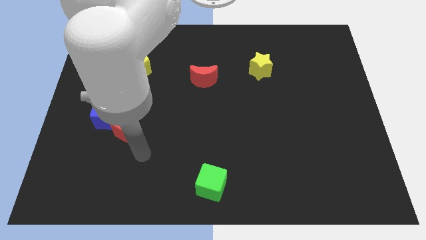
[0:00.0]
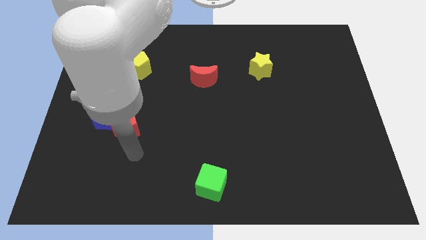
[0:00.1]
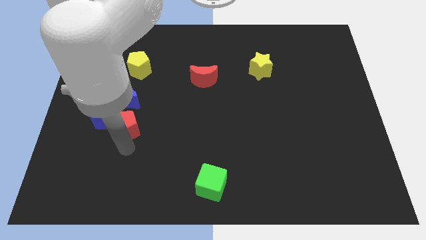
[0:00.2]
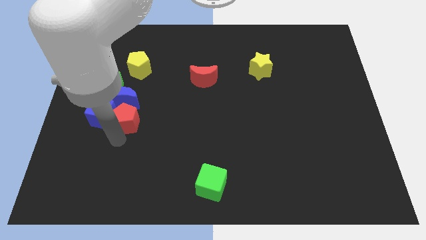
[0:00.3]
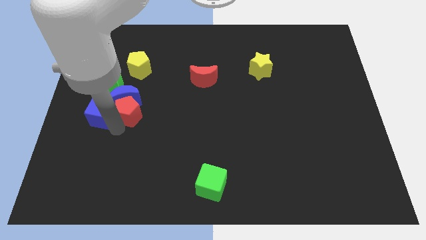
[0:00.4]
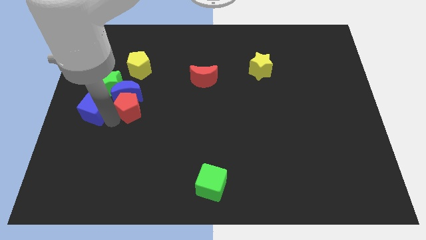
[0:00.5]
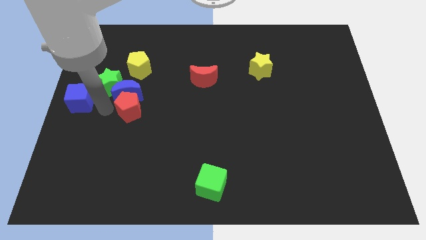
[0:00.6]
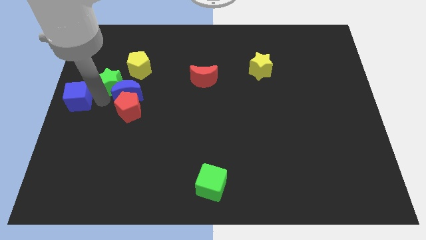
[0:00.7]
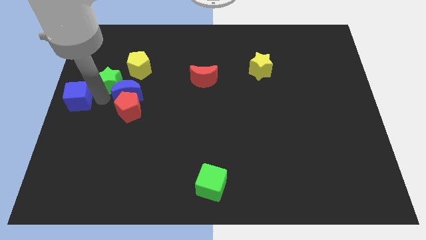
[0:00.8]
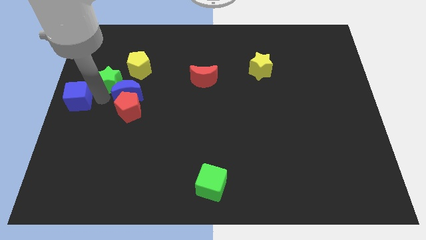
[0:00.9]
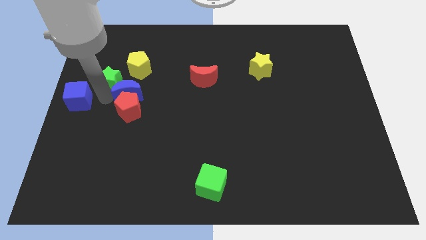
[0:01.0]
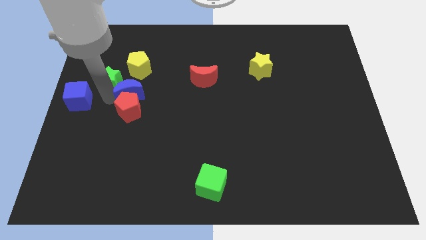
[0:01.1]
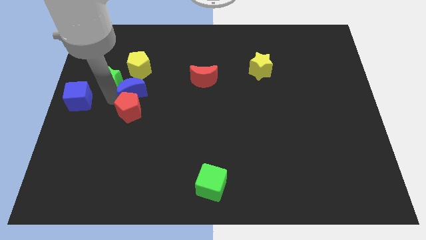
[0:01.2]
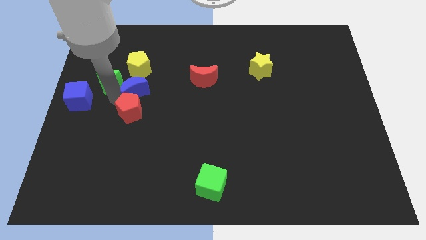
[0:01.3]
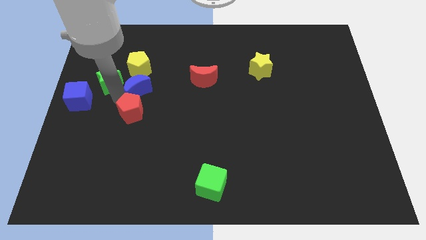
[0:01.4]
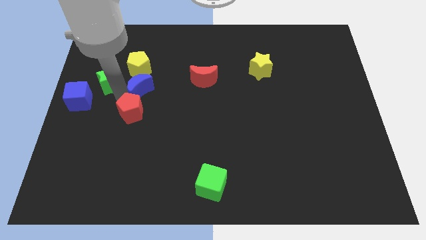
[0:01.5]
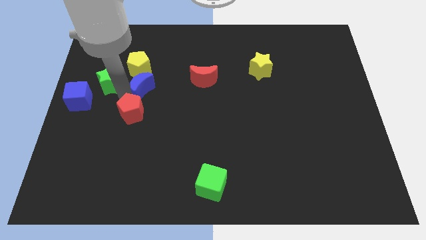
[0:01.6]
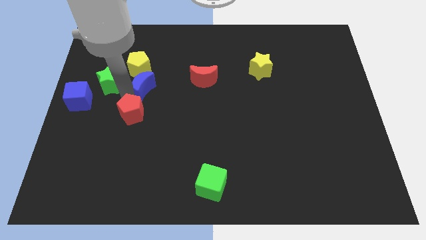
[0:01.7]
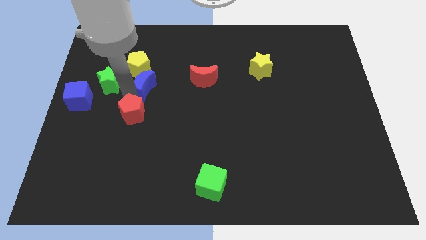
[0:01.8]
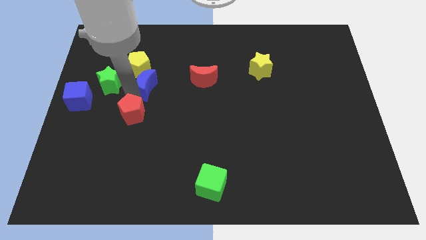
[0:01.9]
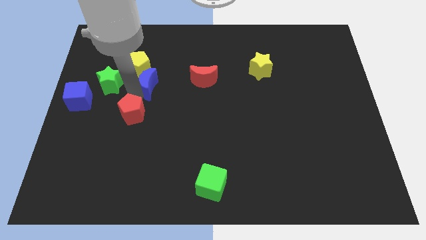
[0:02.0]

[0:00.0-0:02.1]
move the blue moon away from the blue cube, green star, and red pentagon

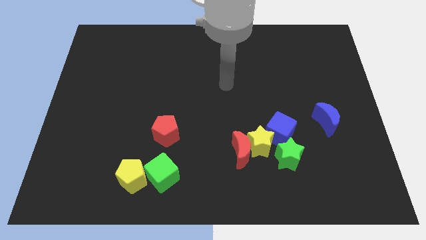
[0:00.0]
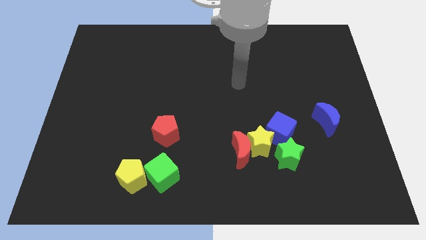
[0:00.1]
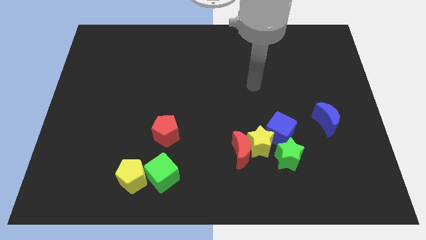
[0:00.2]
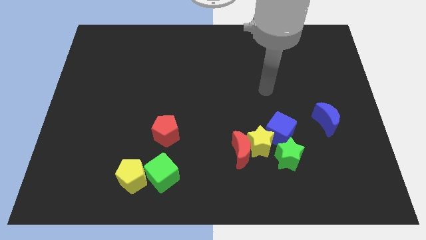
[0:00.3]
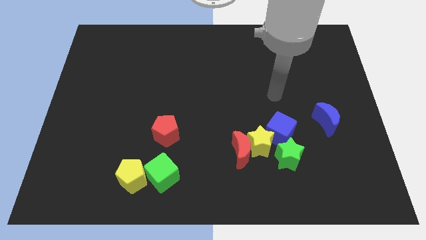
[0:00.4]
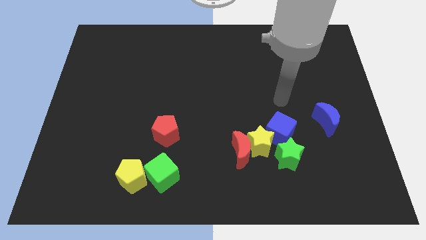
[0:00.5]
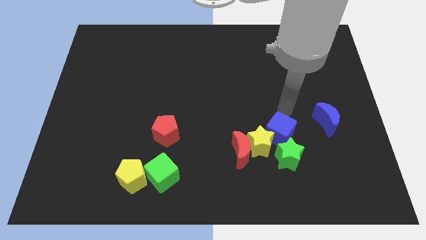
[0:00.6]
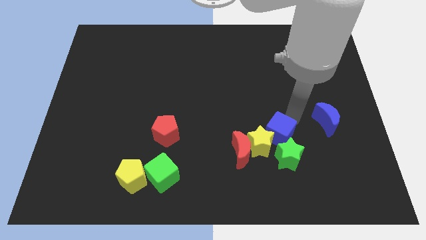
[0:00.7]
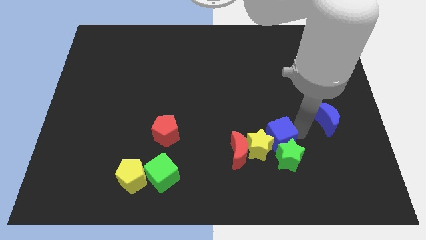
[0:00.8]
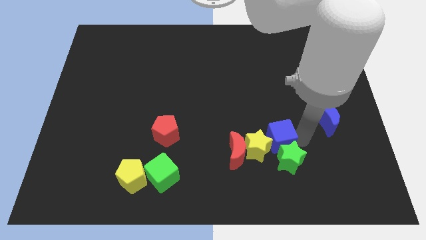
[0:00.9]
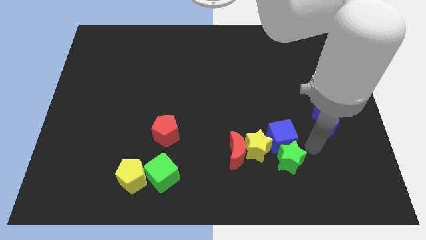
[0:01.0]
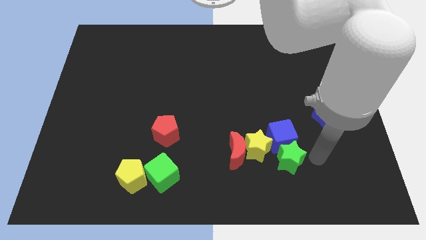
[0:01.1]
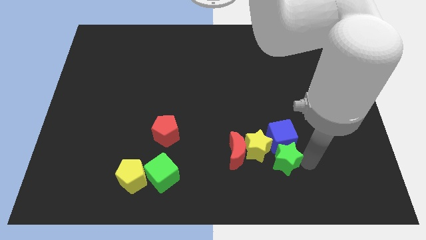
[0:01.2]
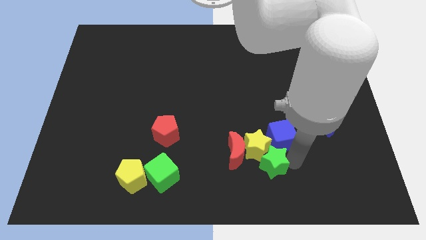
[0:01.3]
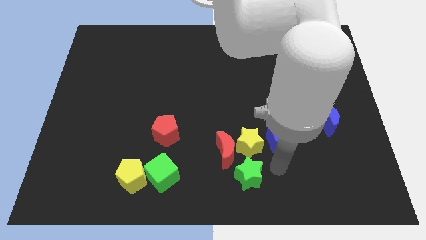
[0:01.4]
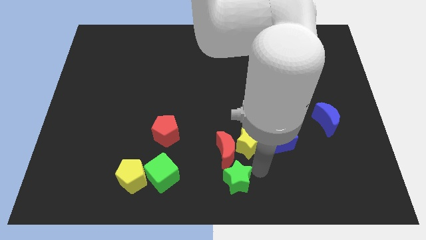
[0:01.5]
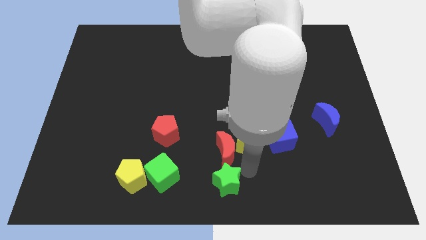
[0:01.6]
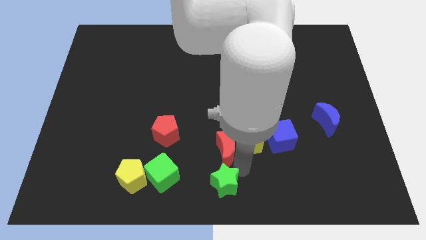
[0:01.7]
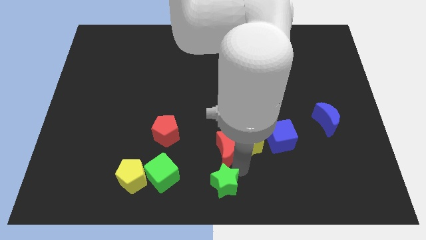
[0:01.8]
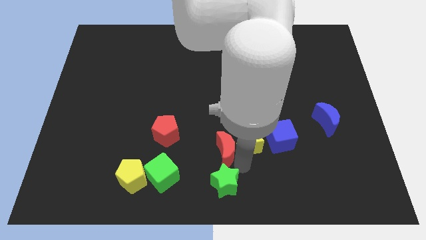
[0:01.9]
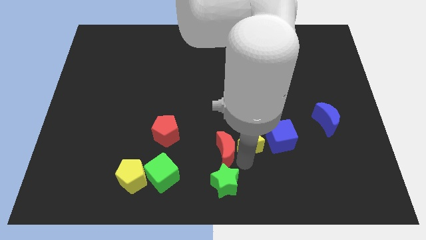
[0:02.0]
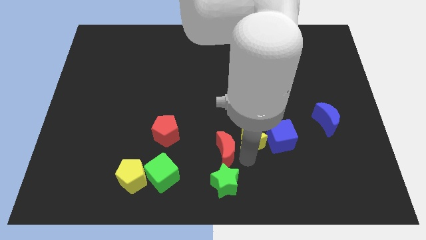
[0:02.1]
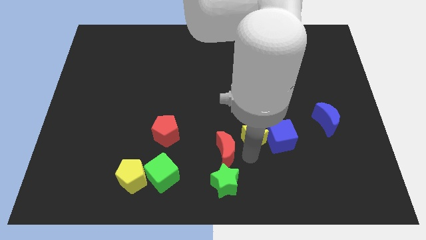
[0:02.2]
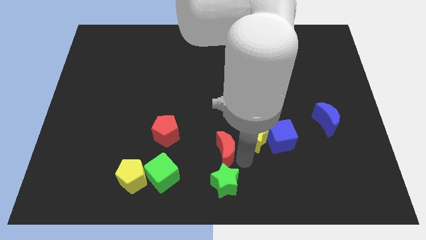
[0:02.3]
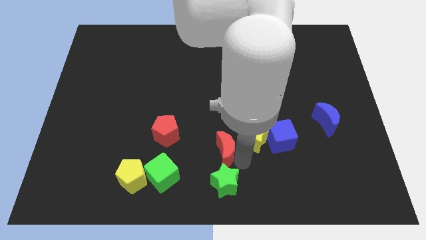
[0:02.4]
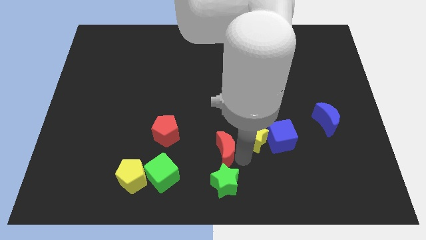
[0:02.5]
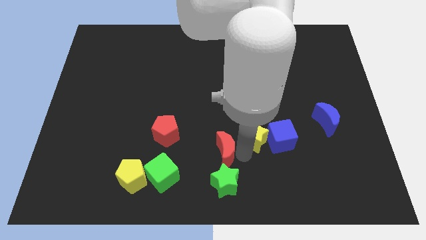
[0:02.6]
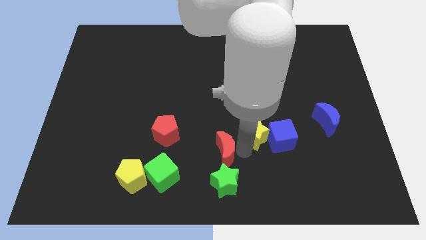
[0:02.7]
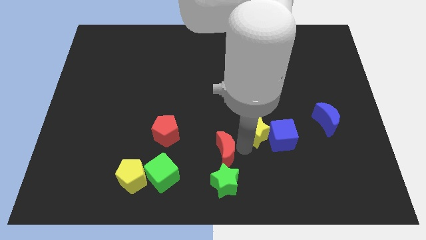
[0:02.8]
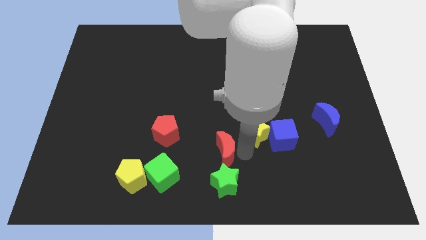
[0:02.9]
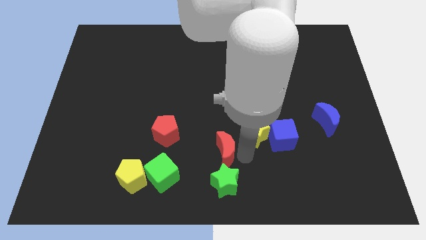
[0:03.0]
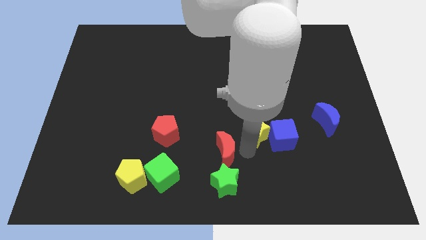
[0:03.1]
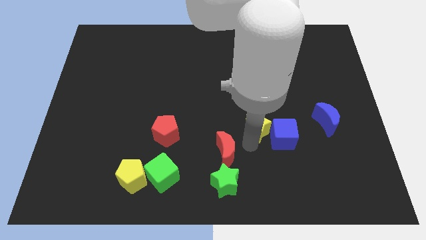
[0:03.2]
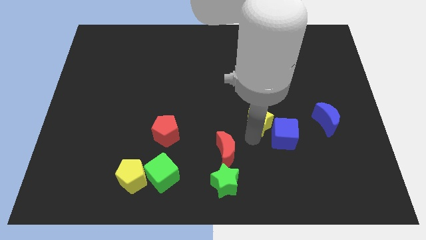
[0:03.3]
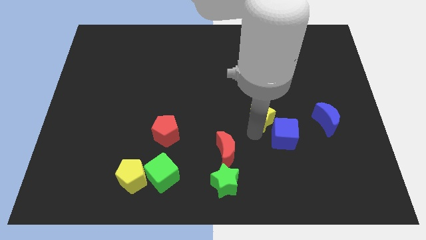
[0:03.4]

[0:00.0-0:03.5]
separate the yellow star from the clump

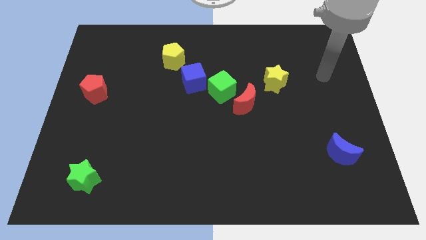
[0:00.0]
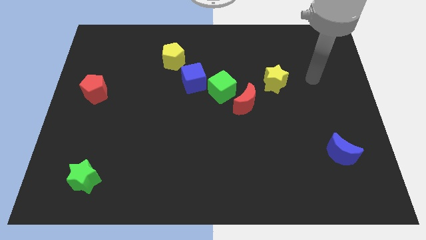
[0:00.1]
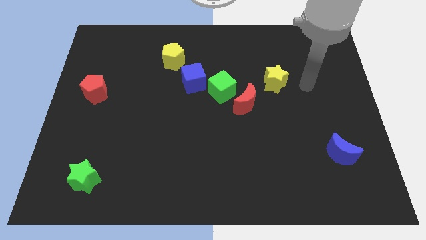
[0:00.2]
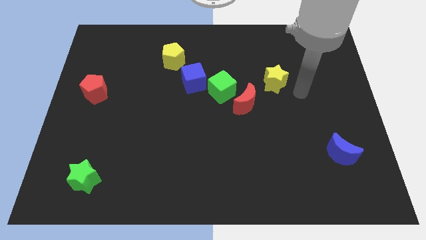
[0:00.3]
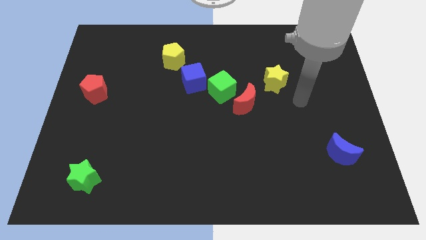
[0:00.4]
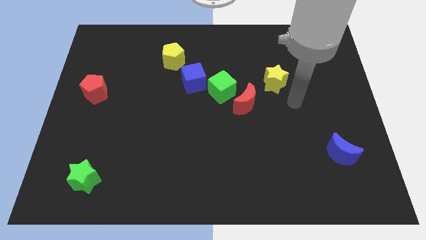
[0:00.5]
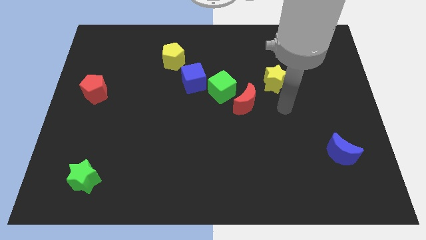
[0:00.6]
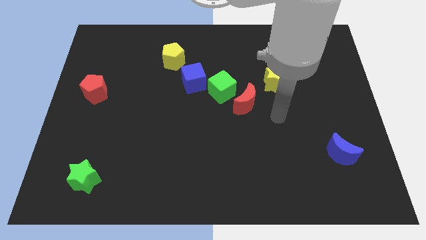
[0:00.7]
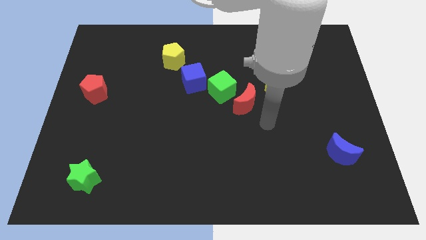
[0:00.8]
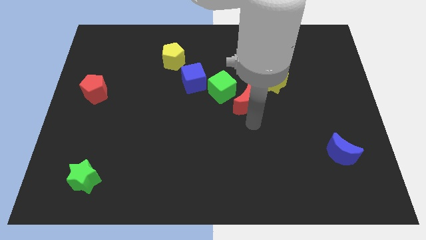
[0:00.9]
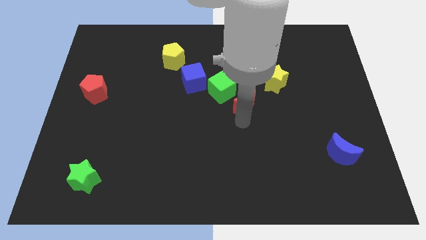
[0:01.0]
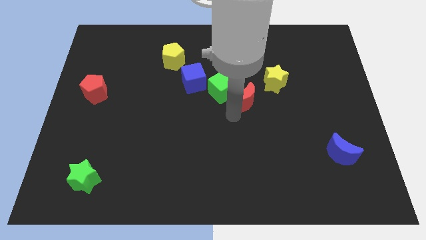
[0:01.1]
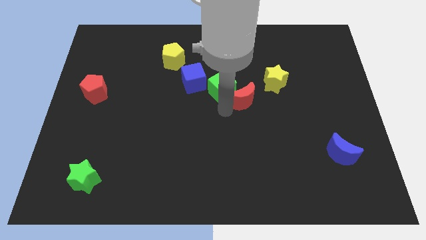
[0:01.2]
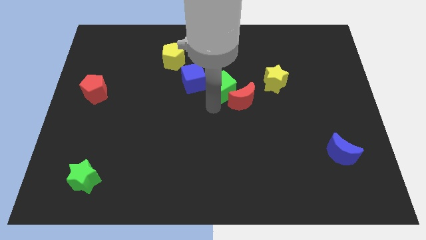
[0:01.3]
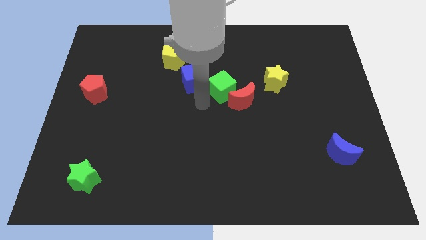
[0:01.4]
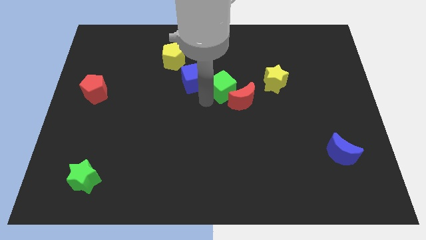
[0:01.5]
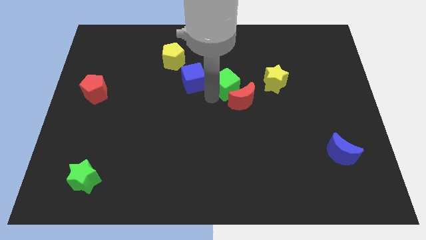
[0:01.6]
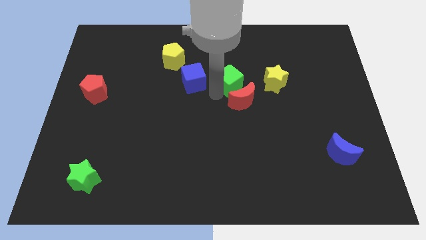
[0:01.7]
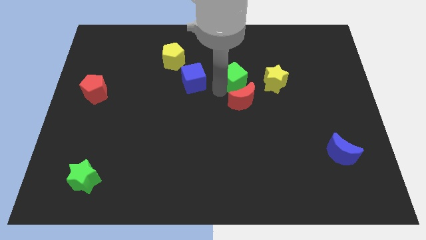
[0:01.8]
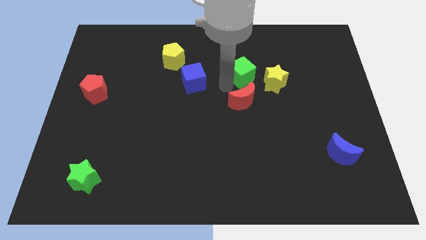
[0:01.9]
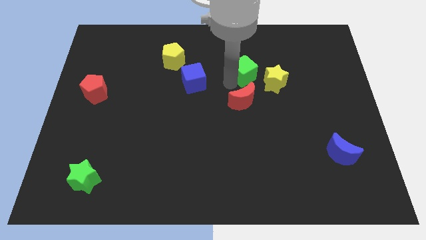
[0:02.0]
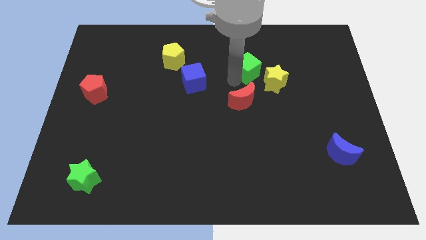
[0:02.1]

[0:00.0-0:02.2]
move the green cube away from the red moon and blue cube

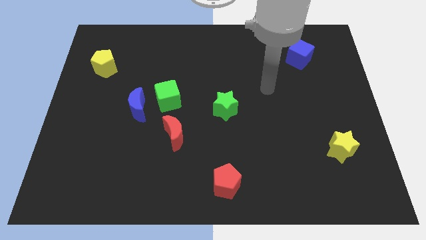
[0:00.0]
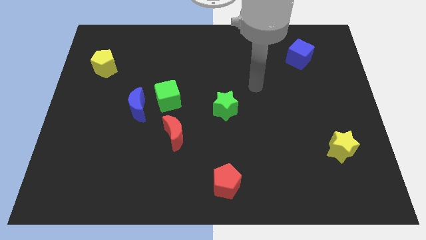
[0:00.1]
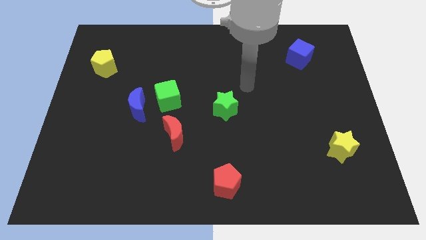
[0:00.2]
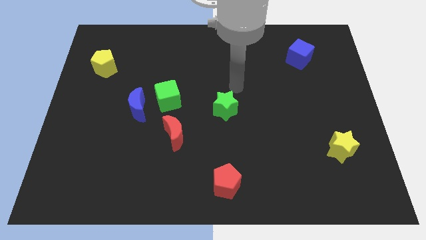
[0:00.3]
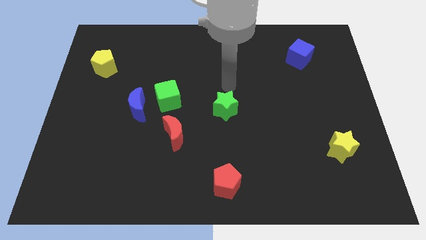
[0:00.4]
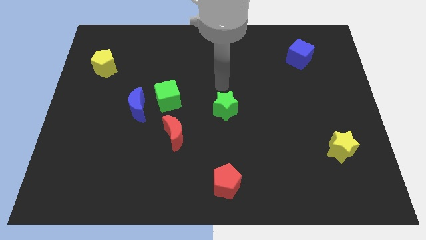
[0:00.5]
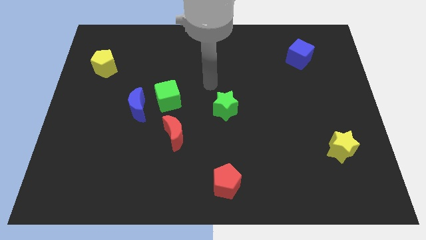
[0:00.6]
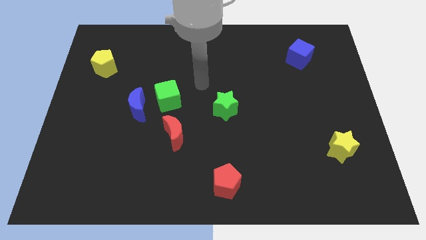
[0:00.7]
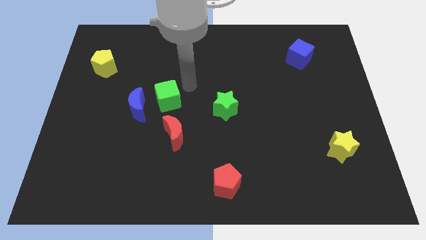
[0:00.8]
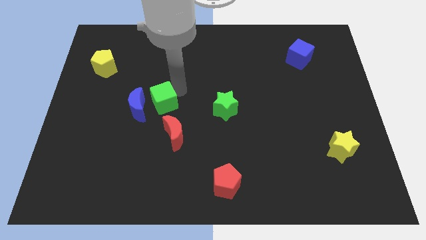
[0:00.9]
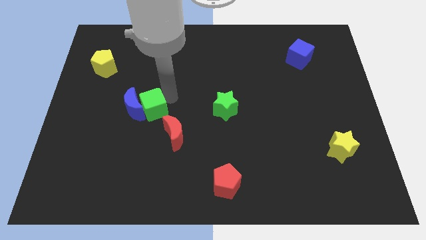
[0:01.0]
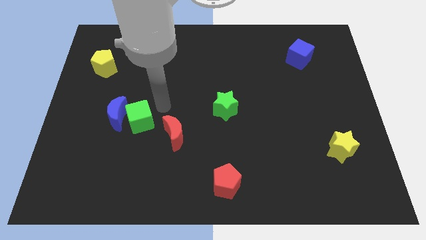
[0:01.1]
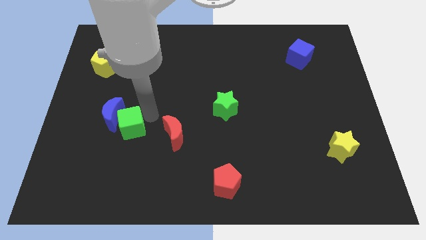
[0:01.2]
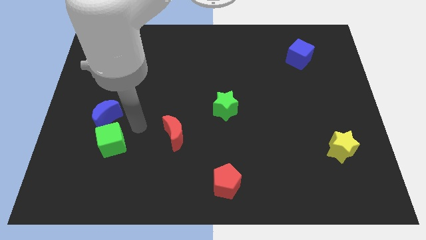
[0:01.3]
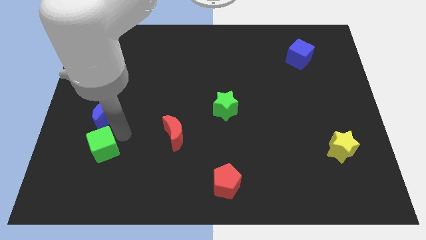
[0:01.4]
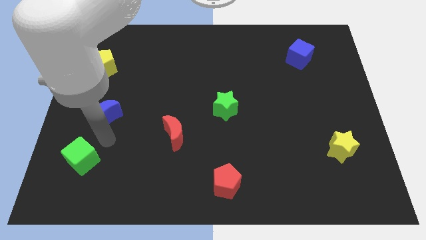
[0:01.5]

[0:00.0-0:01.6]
separate the blue moon from the green cube
